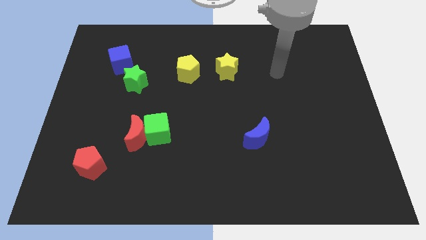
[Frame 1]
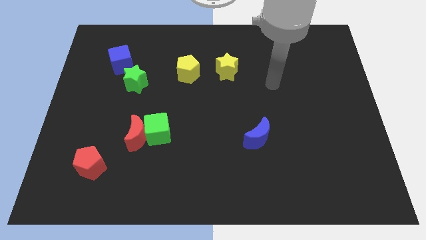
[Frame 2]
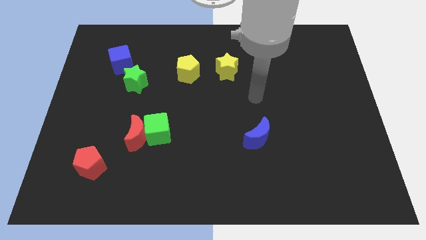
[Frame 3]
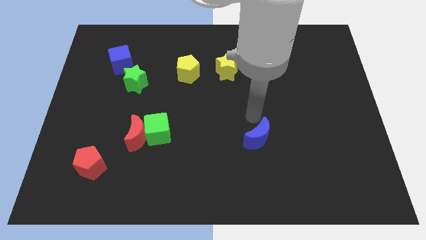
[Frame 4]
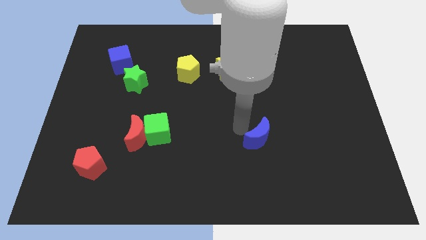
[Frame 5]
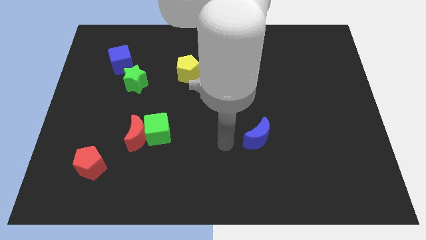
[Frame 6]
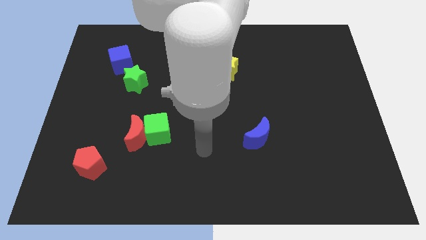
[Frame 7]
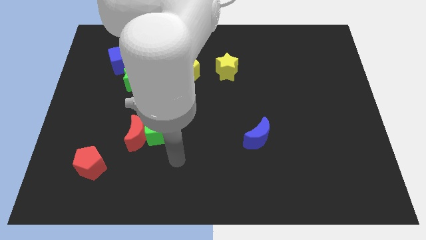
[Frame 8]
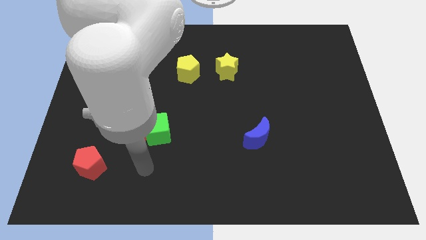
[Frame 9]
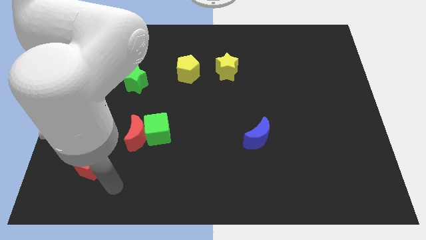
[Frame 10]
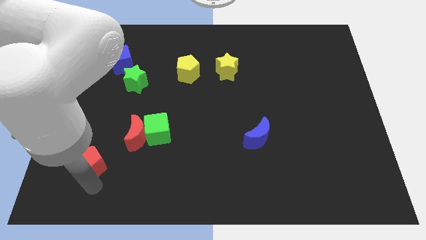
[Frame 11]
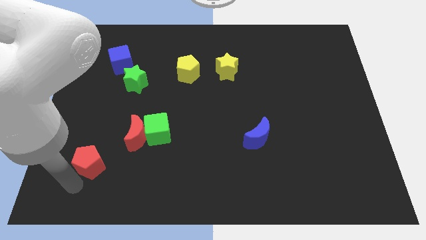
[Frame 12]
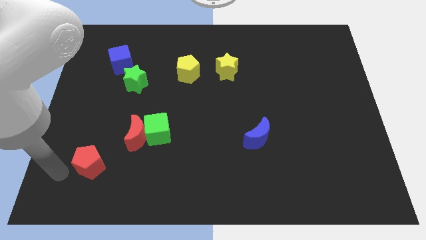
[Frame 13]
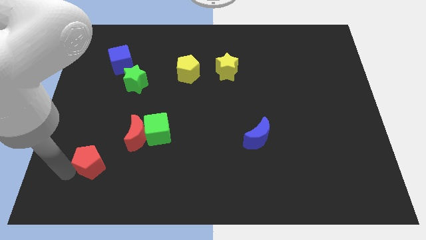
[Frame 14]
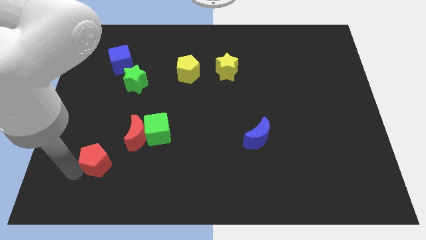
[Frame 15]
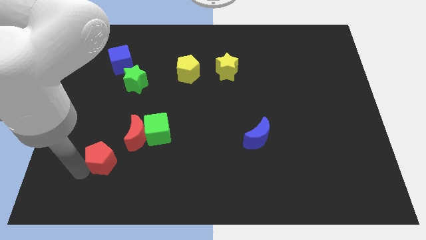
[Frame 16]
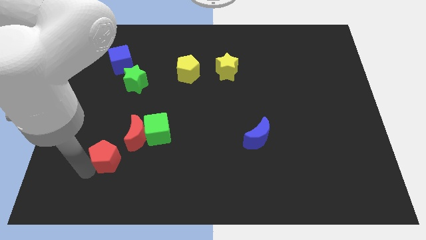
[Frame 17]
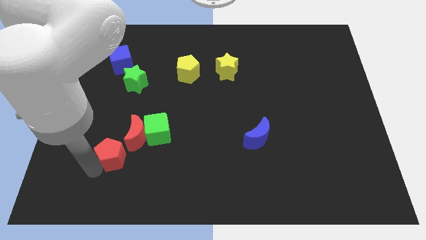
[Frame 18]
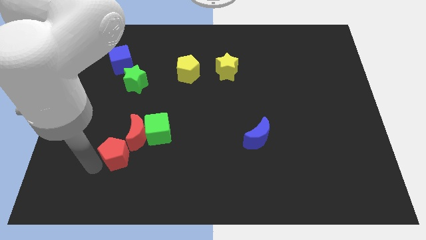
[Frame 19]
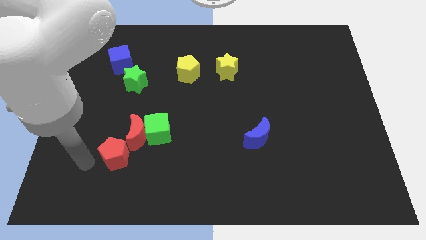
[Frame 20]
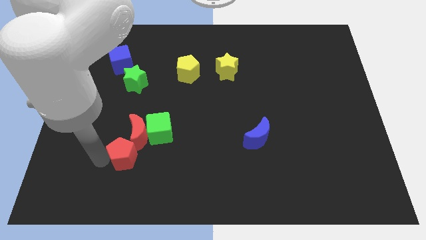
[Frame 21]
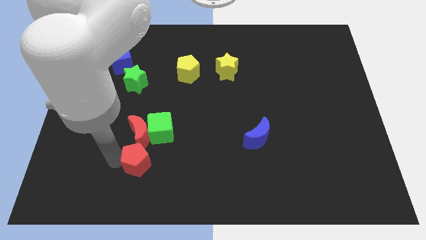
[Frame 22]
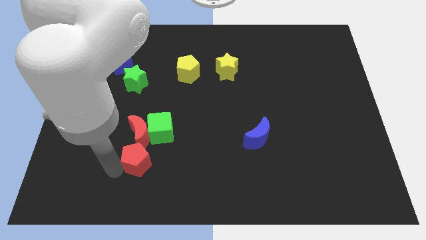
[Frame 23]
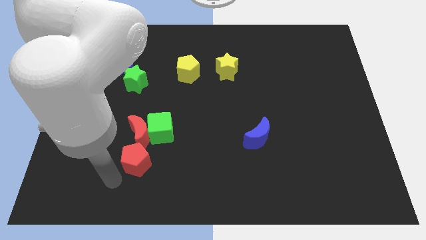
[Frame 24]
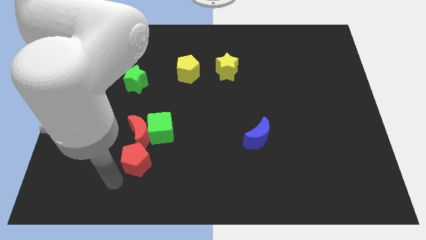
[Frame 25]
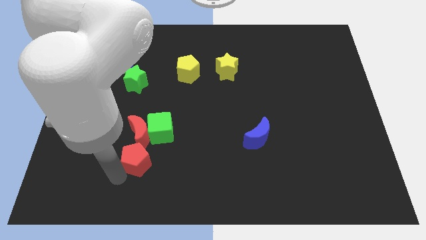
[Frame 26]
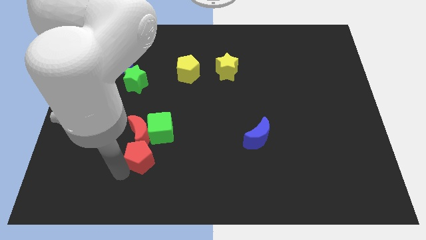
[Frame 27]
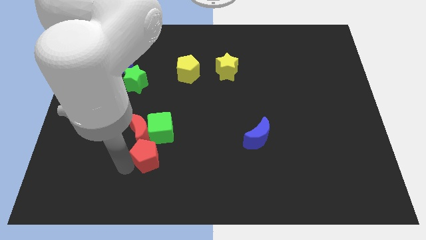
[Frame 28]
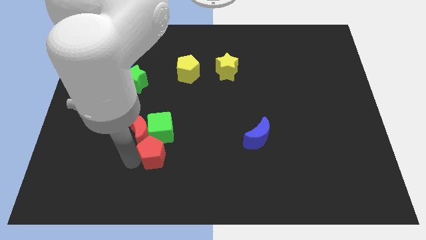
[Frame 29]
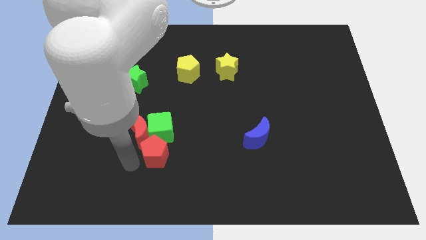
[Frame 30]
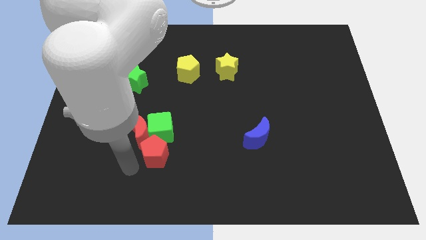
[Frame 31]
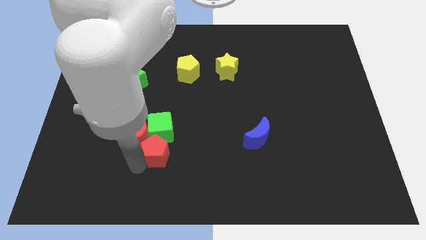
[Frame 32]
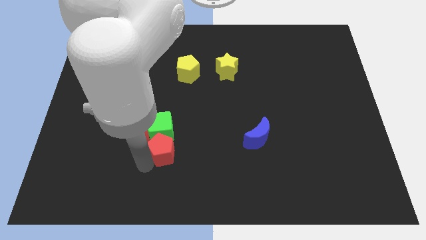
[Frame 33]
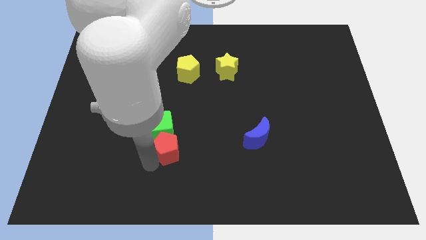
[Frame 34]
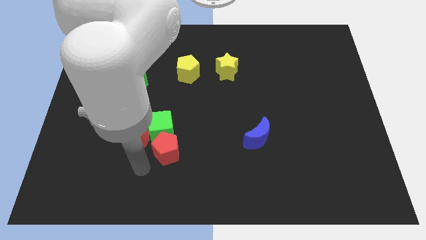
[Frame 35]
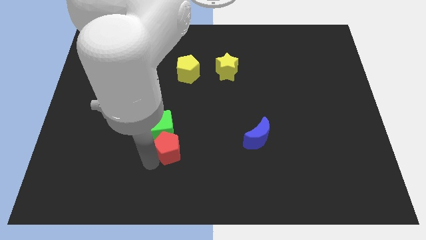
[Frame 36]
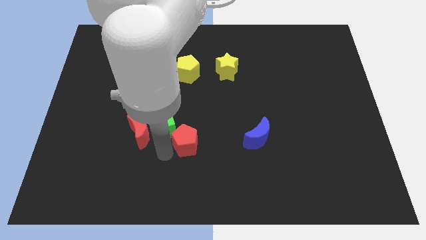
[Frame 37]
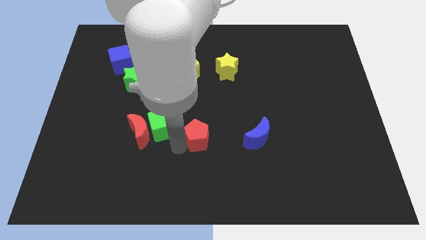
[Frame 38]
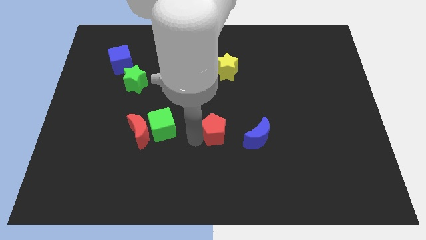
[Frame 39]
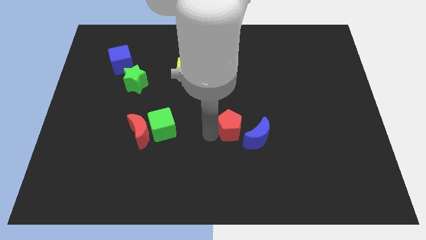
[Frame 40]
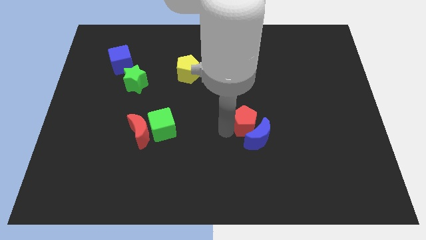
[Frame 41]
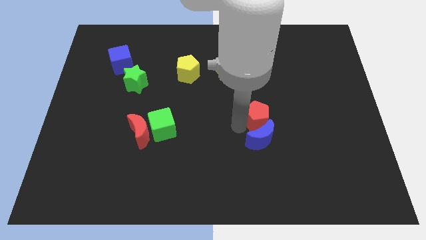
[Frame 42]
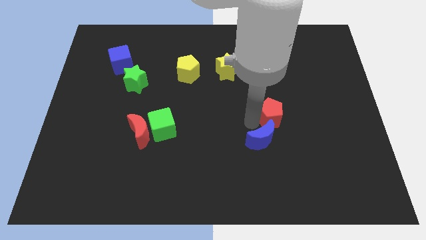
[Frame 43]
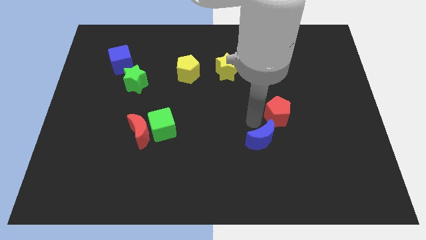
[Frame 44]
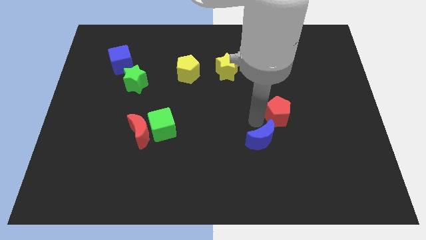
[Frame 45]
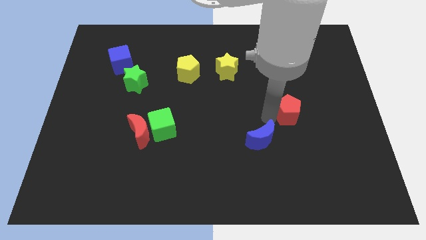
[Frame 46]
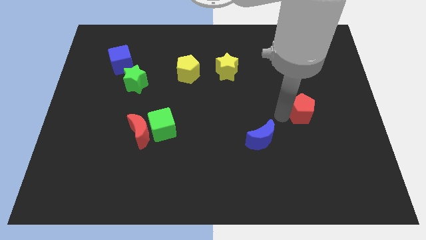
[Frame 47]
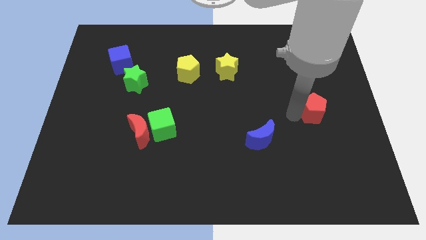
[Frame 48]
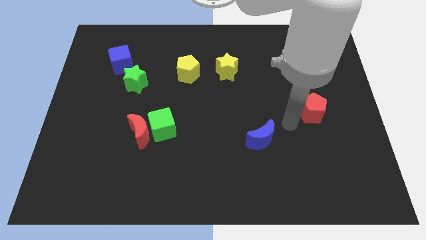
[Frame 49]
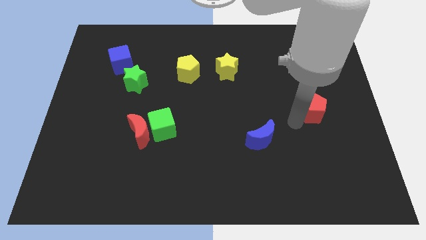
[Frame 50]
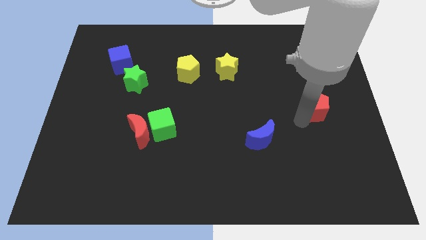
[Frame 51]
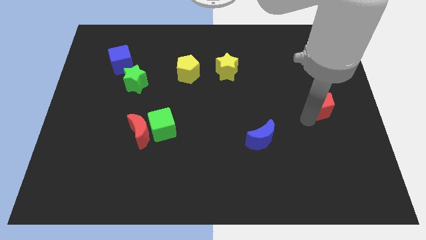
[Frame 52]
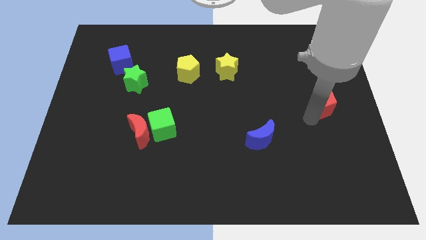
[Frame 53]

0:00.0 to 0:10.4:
move the red pentagon to the right side

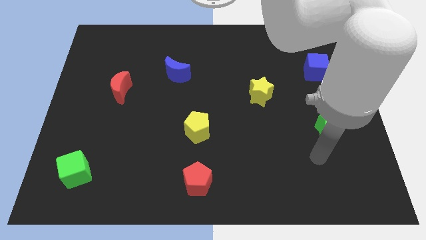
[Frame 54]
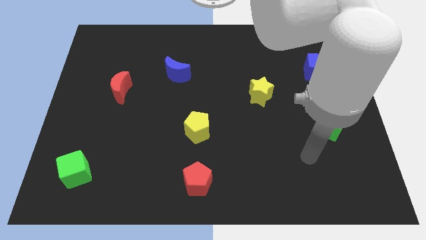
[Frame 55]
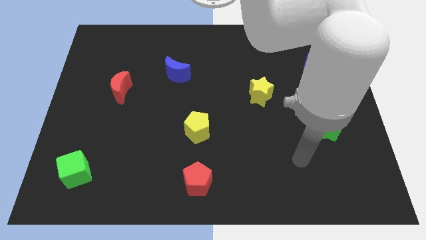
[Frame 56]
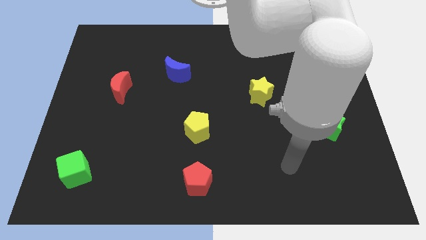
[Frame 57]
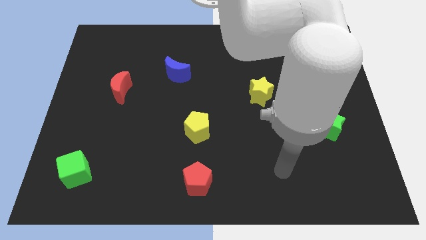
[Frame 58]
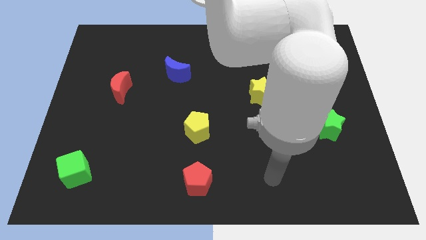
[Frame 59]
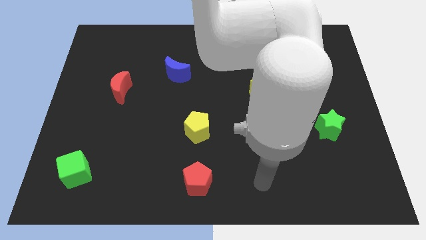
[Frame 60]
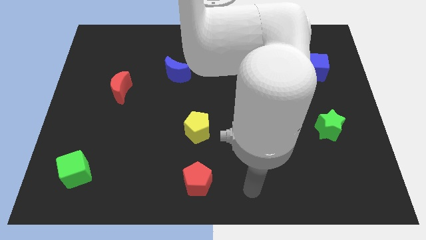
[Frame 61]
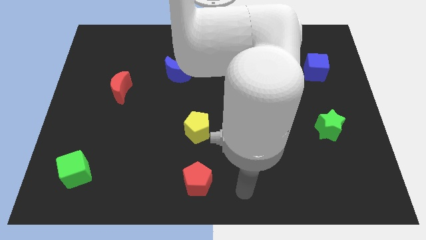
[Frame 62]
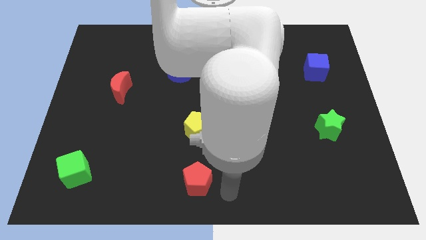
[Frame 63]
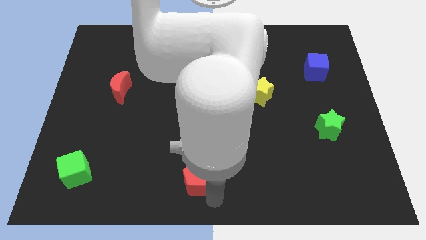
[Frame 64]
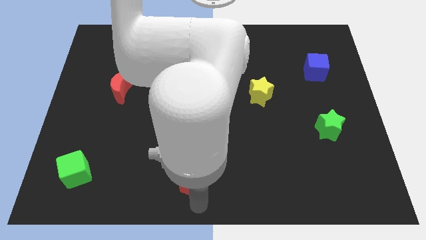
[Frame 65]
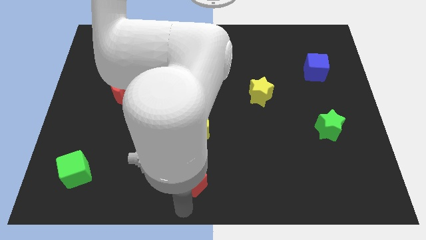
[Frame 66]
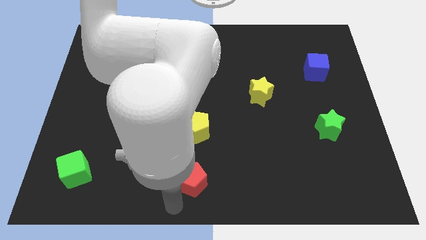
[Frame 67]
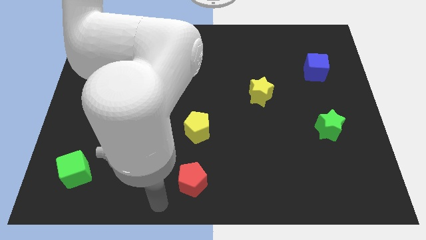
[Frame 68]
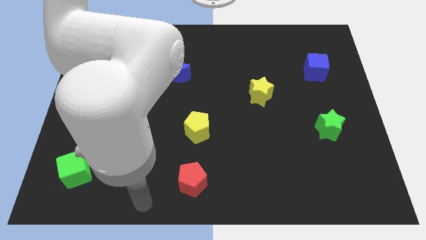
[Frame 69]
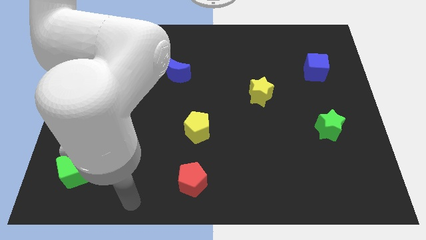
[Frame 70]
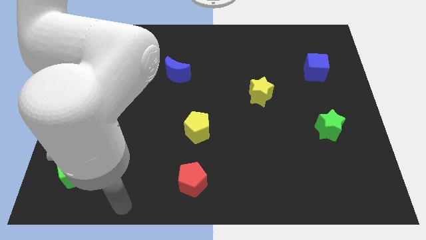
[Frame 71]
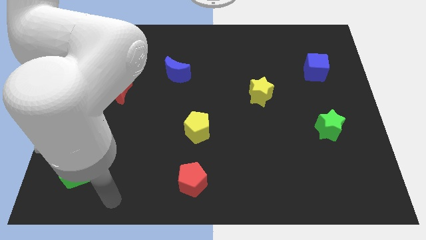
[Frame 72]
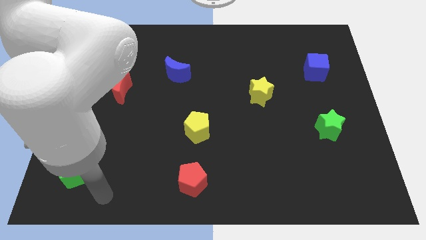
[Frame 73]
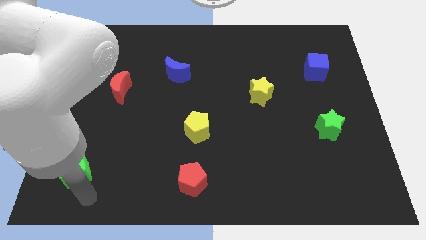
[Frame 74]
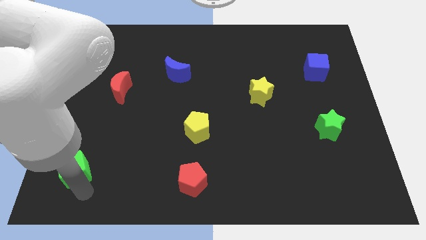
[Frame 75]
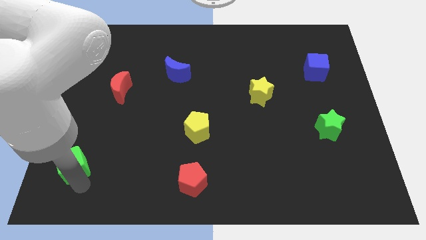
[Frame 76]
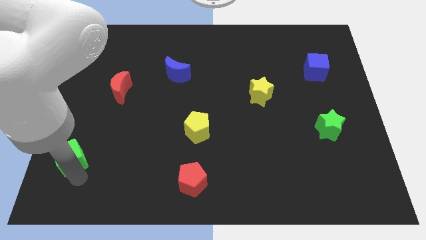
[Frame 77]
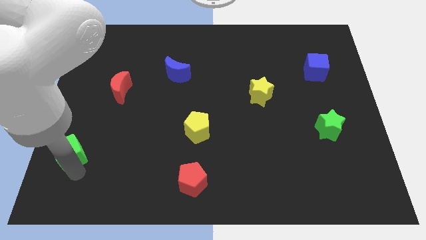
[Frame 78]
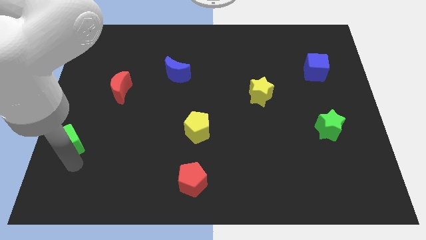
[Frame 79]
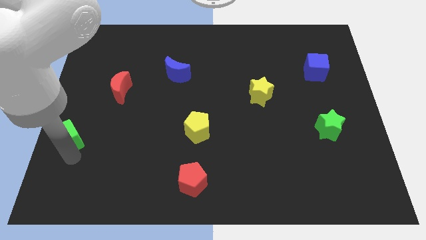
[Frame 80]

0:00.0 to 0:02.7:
move the green cube to the left side of the board
